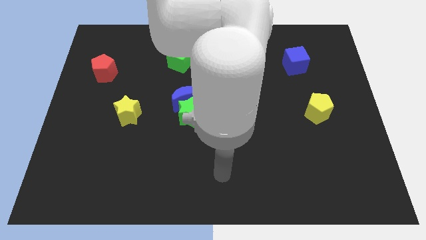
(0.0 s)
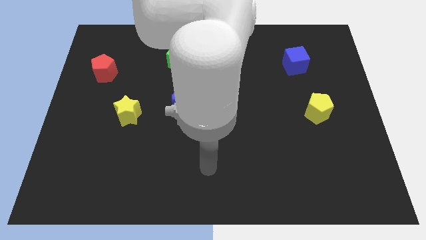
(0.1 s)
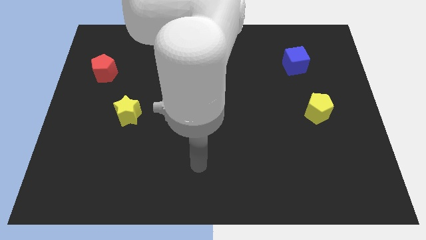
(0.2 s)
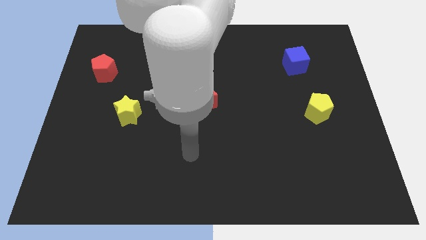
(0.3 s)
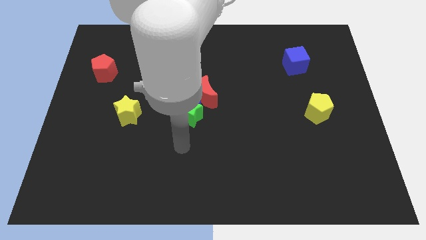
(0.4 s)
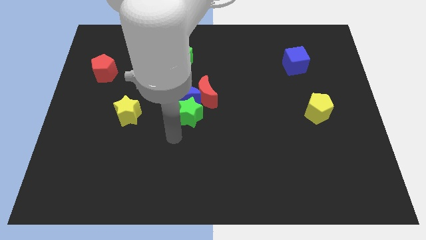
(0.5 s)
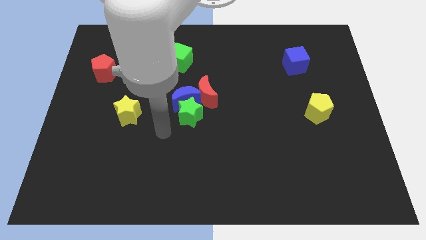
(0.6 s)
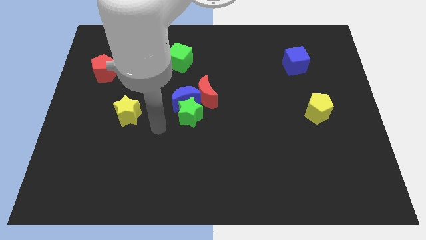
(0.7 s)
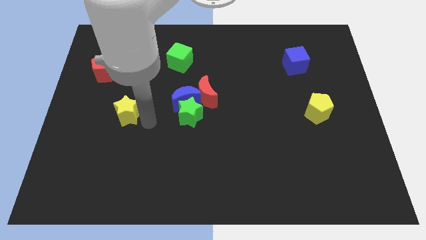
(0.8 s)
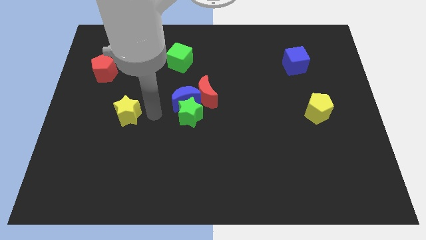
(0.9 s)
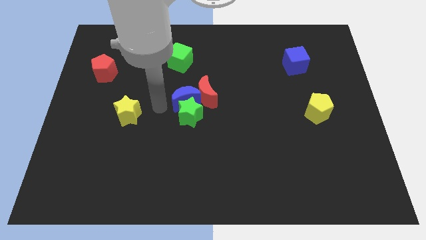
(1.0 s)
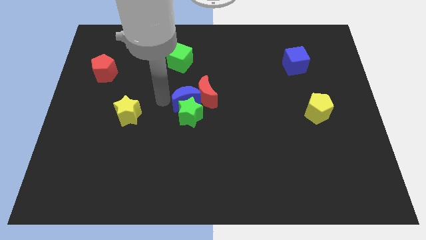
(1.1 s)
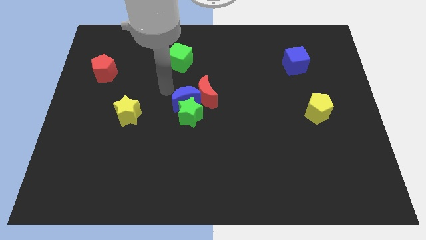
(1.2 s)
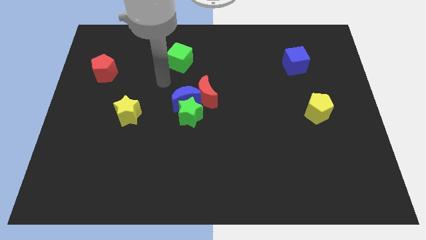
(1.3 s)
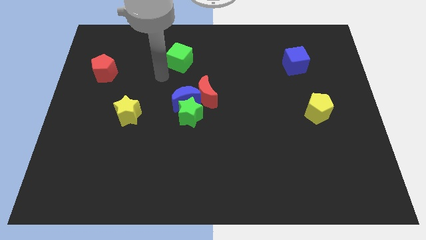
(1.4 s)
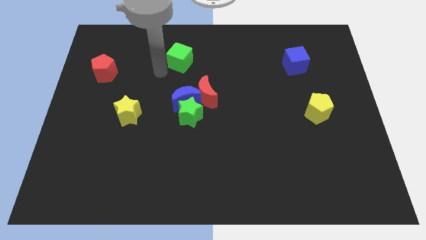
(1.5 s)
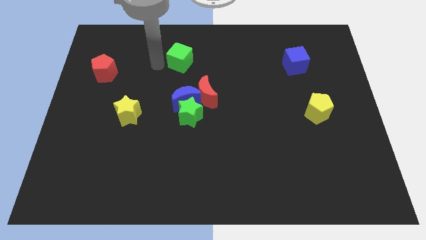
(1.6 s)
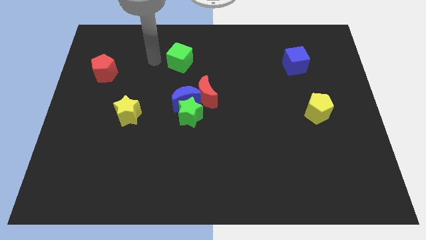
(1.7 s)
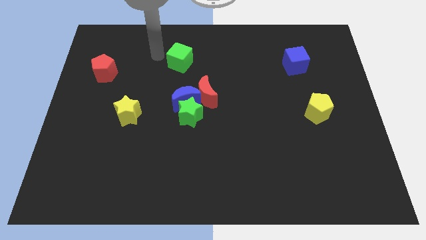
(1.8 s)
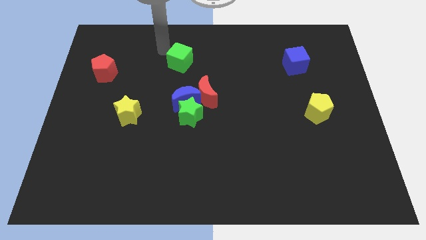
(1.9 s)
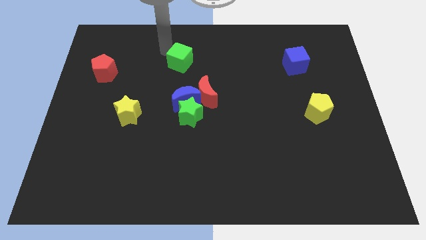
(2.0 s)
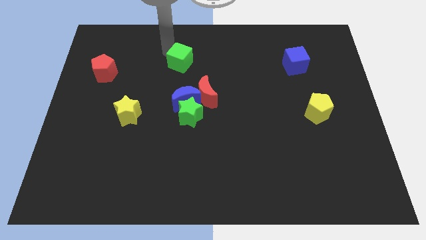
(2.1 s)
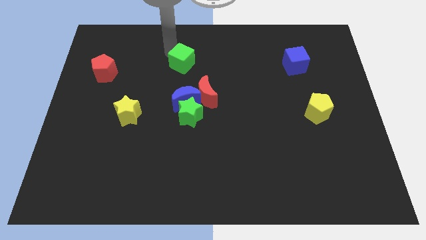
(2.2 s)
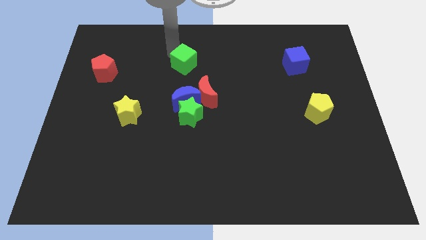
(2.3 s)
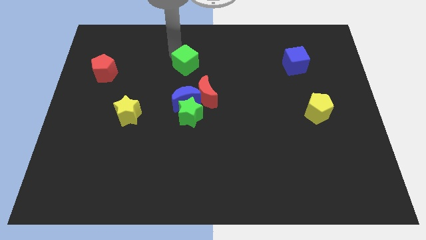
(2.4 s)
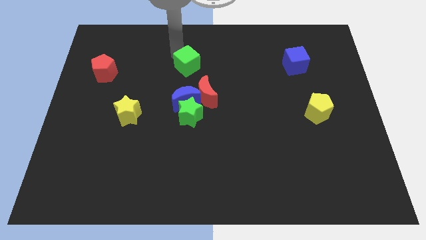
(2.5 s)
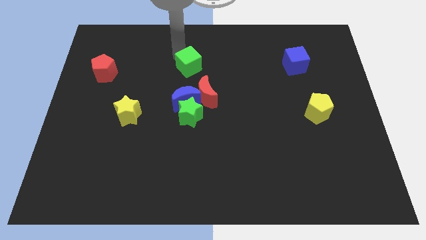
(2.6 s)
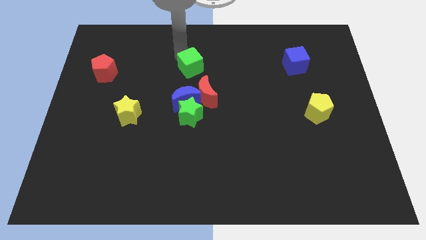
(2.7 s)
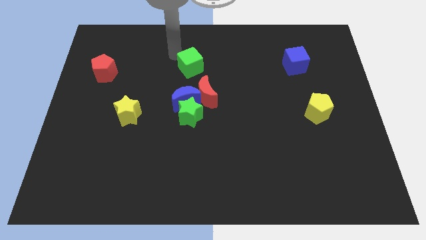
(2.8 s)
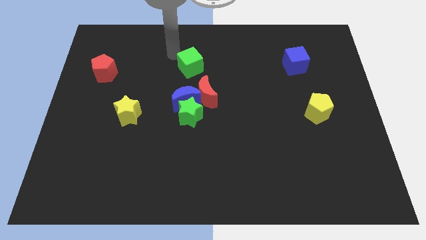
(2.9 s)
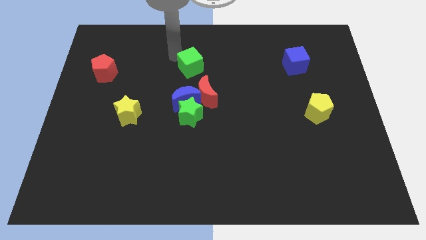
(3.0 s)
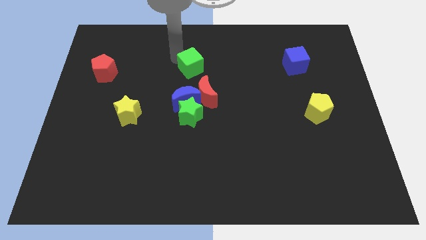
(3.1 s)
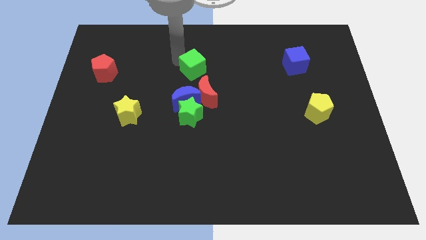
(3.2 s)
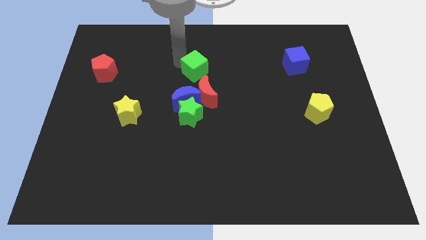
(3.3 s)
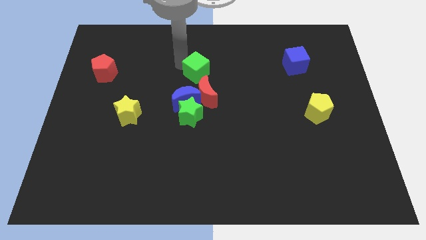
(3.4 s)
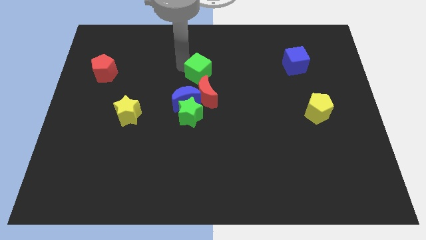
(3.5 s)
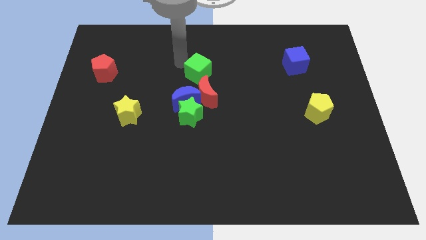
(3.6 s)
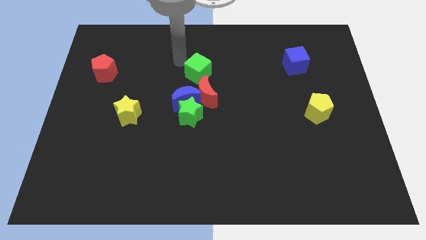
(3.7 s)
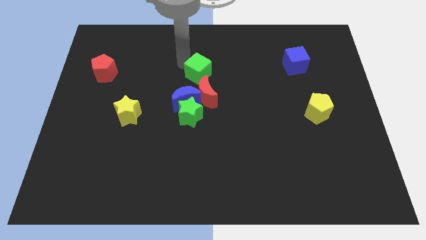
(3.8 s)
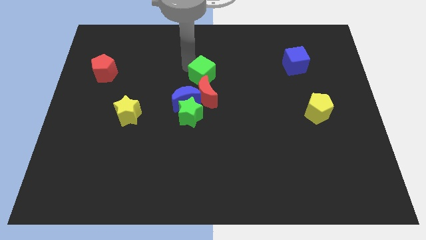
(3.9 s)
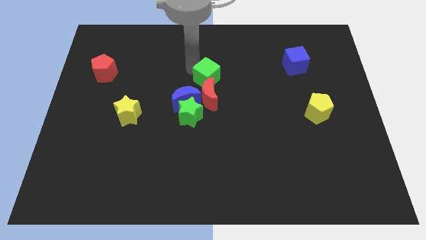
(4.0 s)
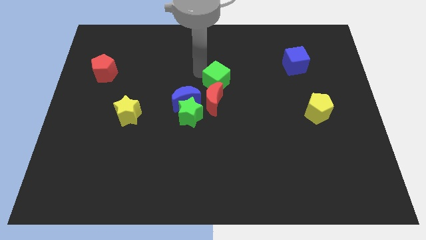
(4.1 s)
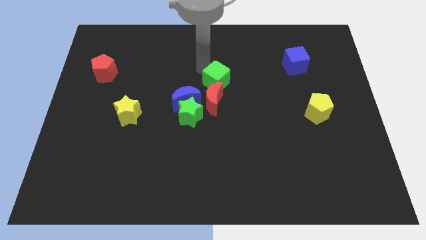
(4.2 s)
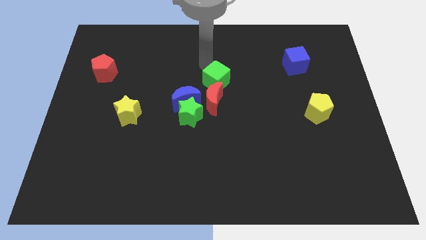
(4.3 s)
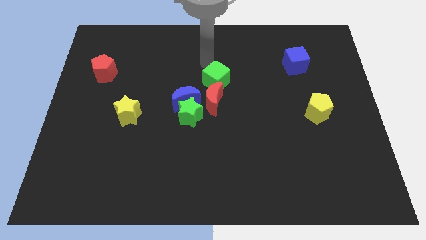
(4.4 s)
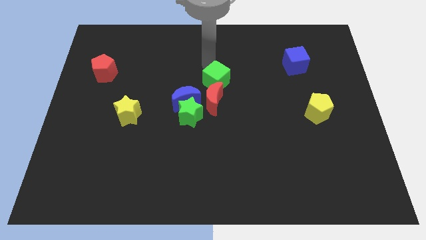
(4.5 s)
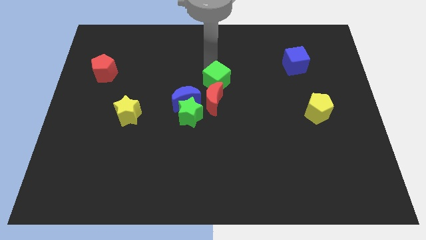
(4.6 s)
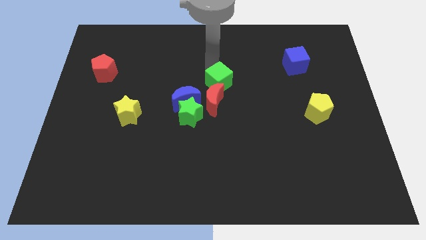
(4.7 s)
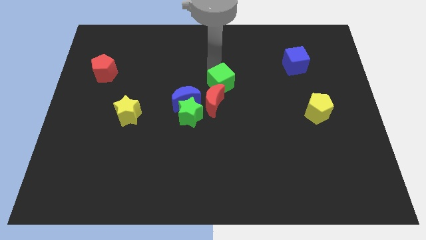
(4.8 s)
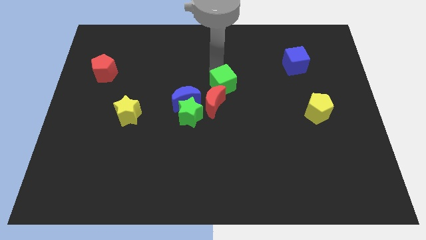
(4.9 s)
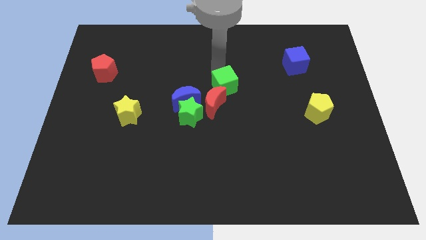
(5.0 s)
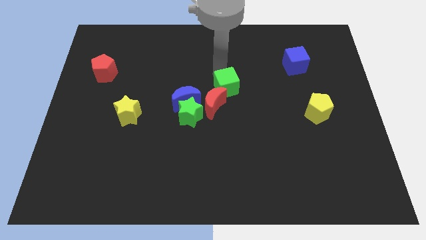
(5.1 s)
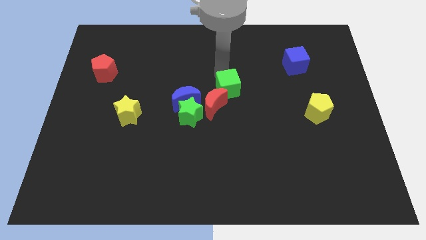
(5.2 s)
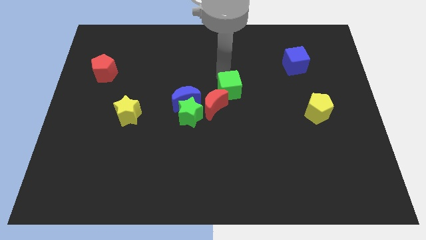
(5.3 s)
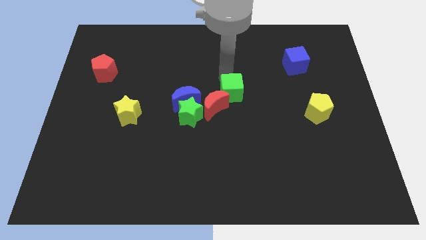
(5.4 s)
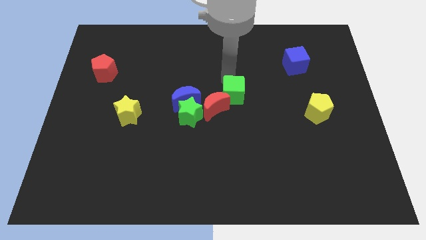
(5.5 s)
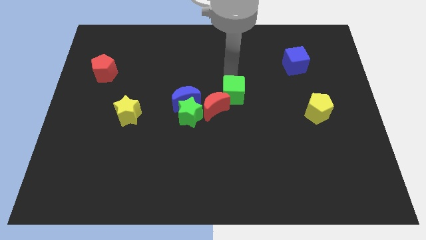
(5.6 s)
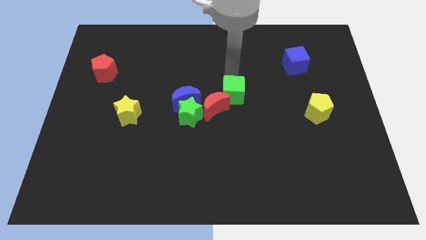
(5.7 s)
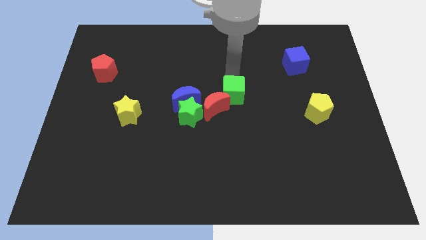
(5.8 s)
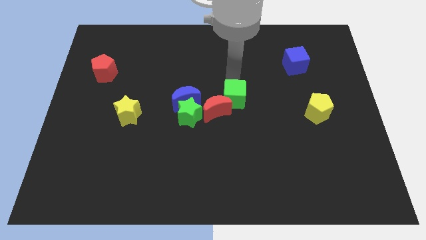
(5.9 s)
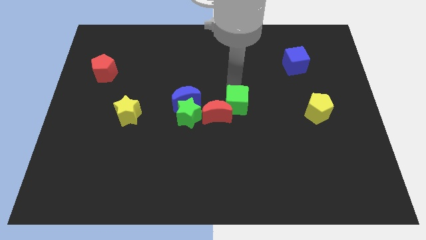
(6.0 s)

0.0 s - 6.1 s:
move the green cube to the right side of the green star
